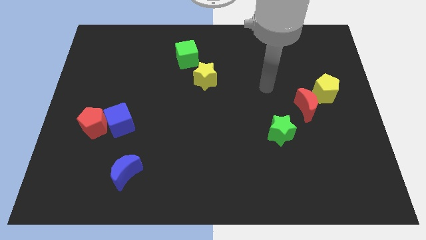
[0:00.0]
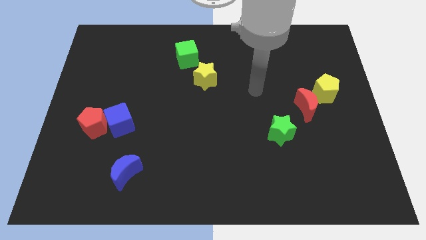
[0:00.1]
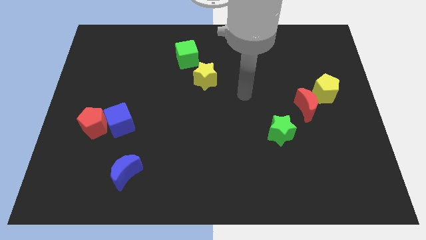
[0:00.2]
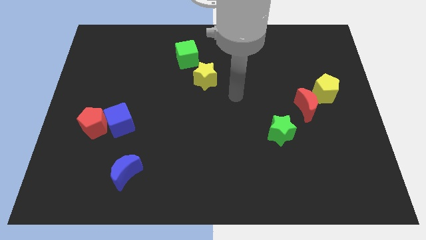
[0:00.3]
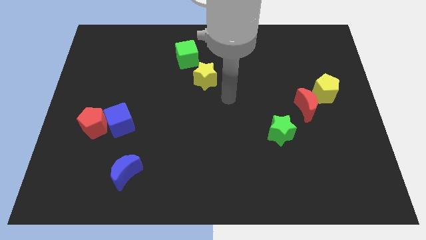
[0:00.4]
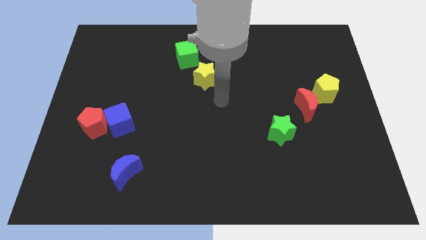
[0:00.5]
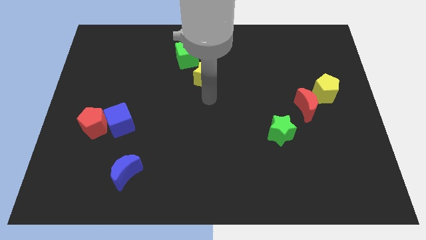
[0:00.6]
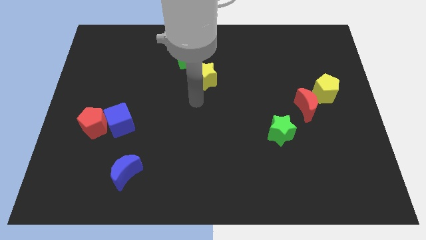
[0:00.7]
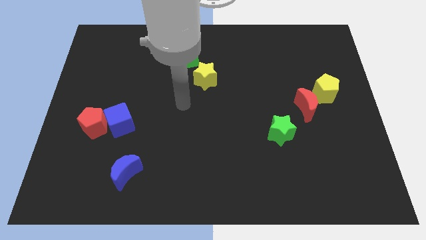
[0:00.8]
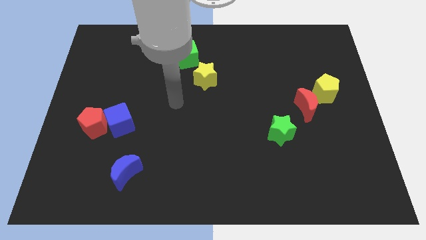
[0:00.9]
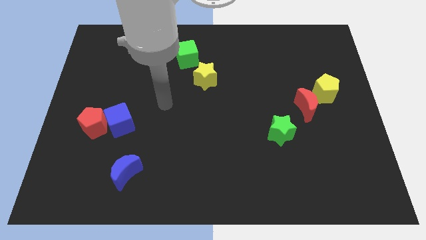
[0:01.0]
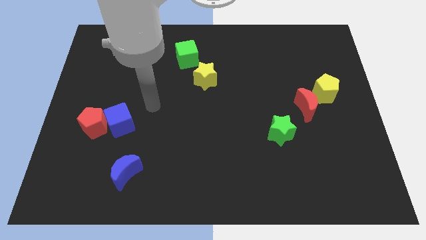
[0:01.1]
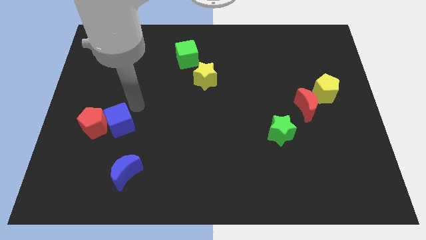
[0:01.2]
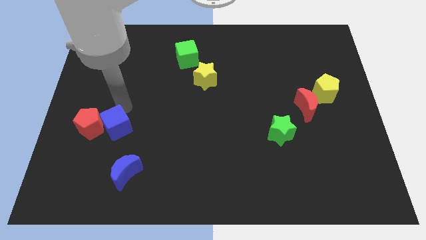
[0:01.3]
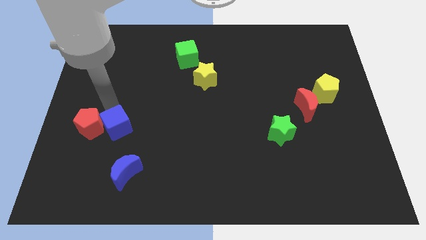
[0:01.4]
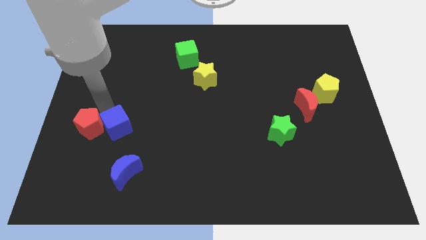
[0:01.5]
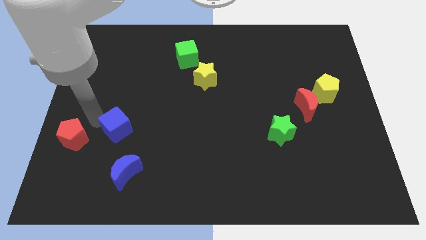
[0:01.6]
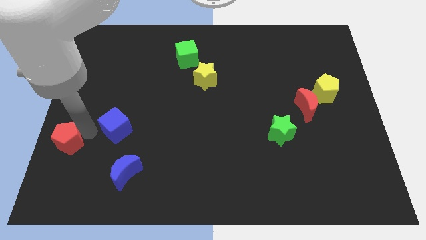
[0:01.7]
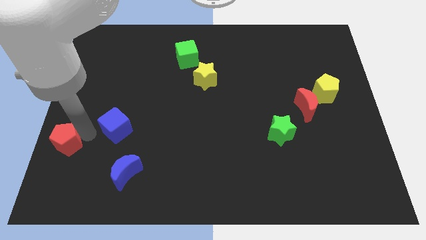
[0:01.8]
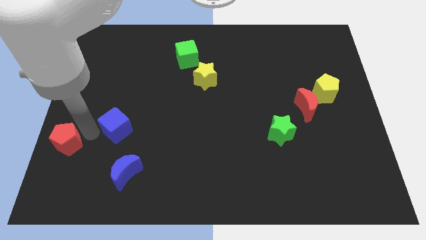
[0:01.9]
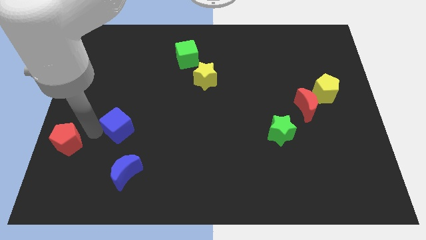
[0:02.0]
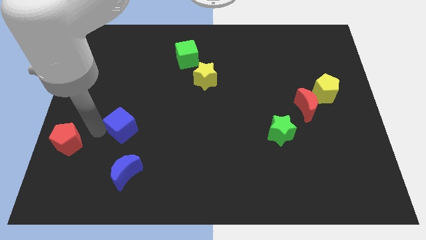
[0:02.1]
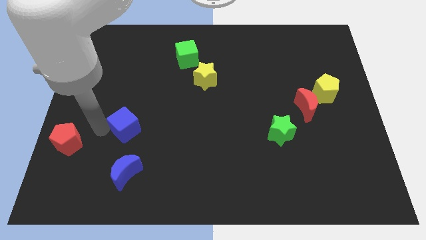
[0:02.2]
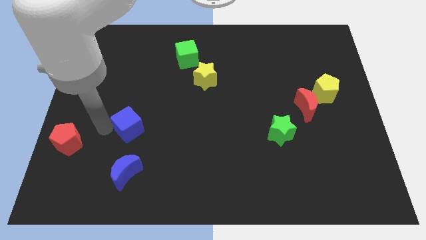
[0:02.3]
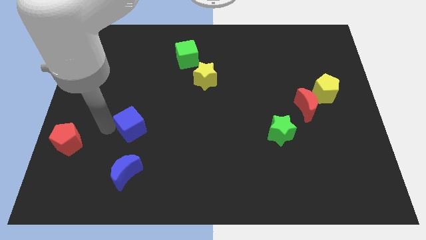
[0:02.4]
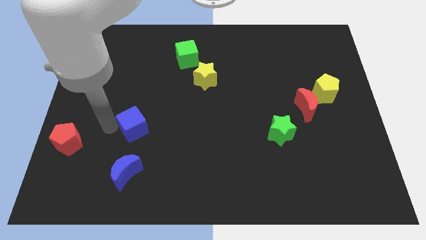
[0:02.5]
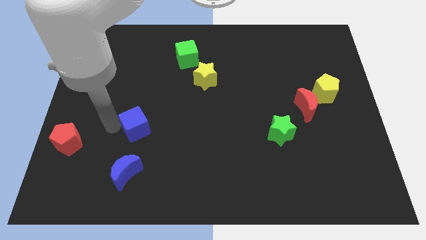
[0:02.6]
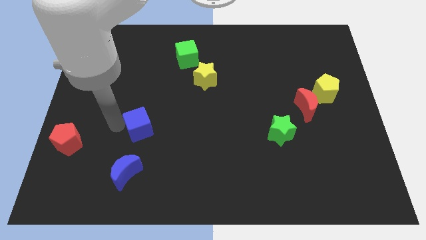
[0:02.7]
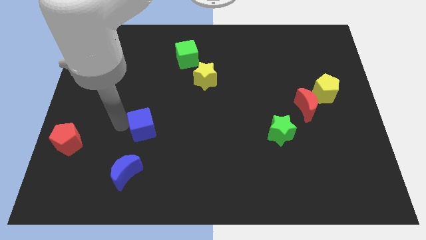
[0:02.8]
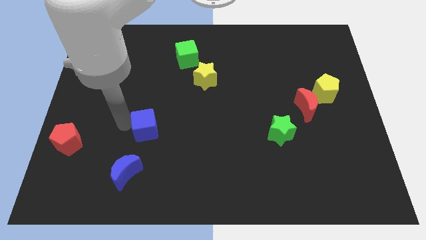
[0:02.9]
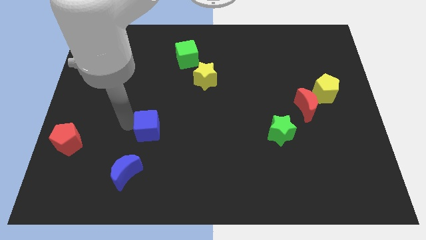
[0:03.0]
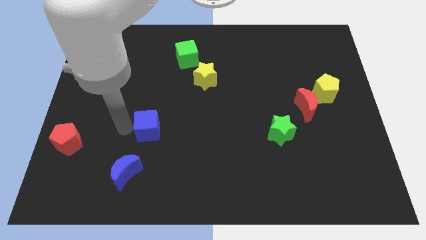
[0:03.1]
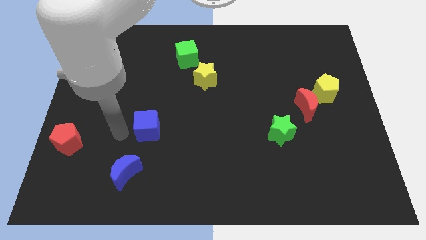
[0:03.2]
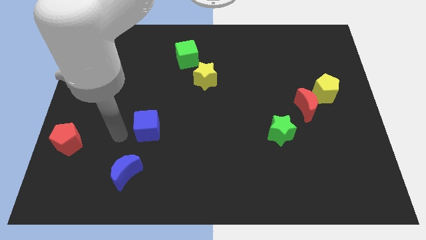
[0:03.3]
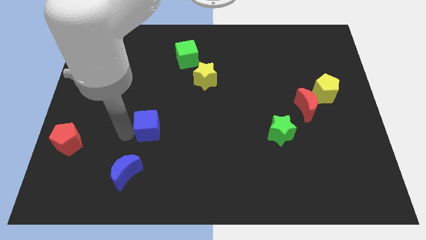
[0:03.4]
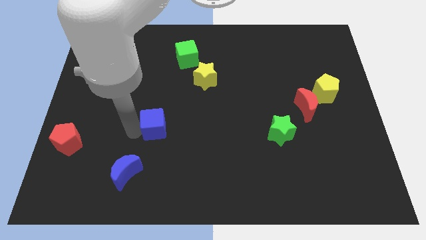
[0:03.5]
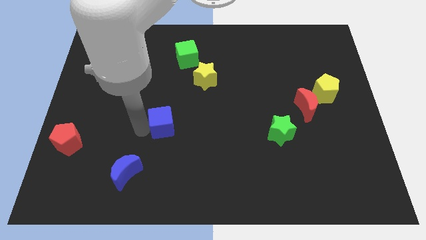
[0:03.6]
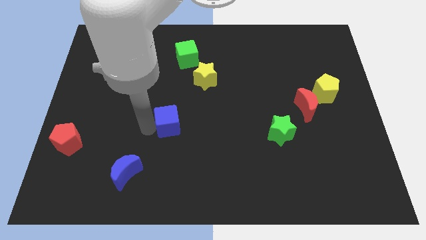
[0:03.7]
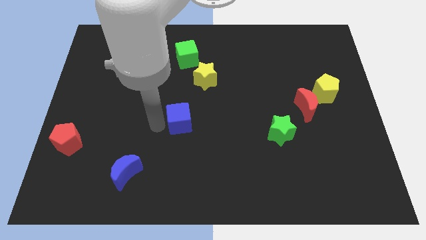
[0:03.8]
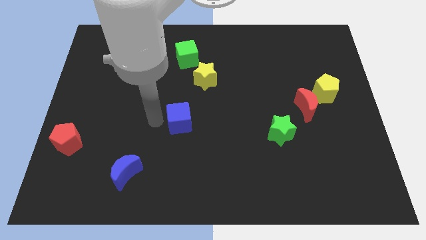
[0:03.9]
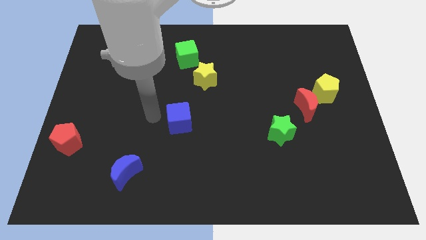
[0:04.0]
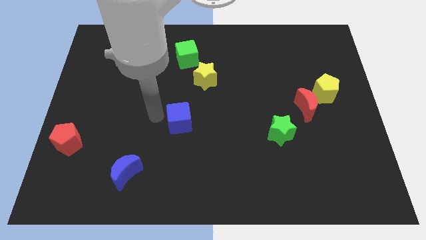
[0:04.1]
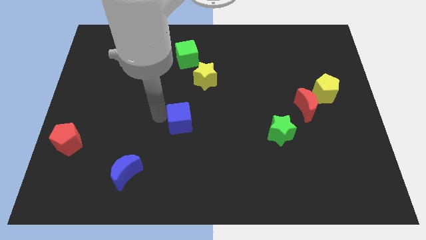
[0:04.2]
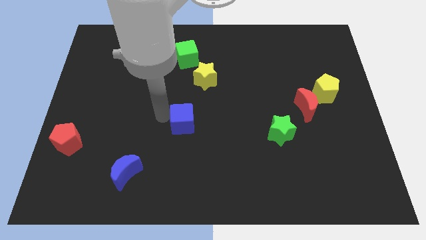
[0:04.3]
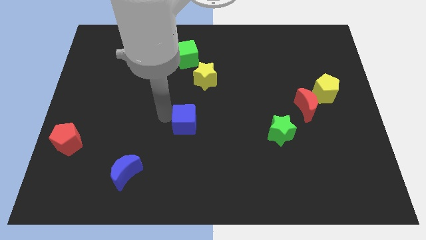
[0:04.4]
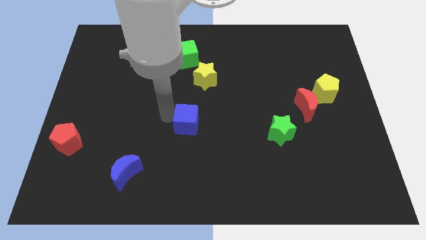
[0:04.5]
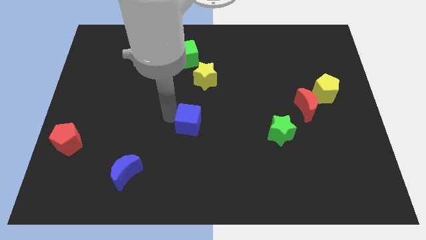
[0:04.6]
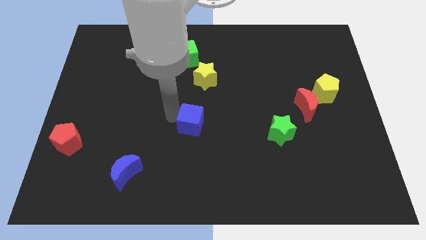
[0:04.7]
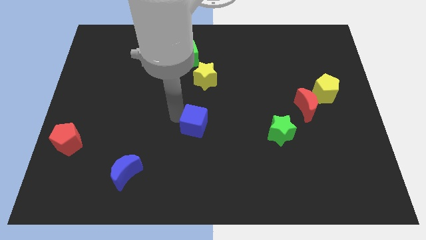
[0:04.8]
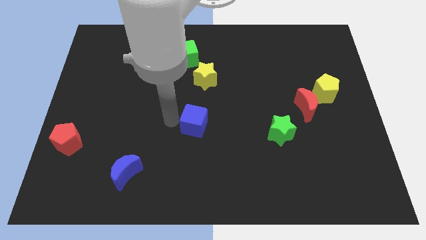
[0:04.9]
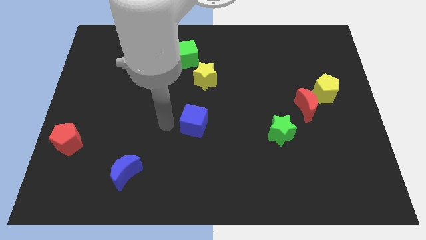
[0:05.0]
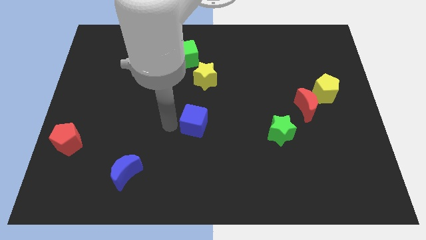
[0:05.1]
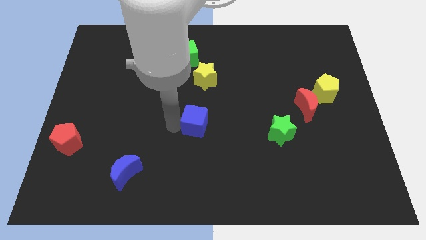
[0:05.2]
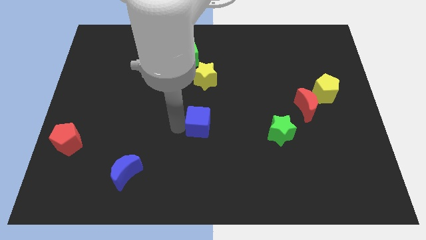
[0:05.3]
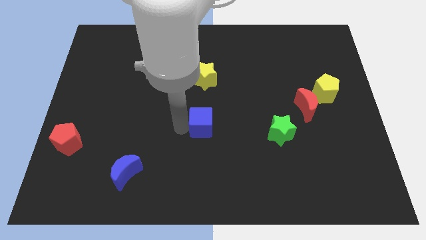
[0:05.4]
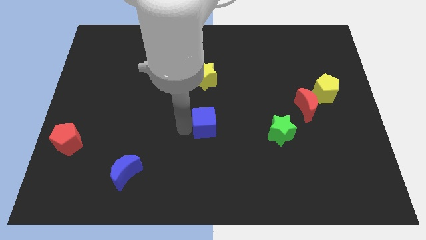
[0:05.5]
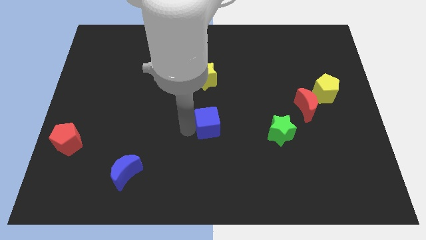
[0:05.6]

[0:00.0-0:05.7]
move the blue cube right

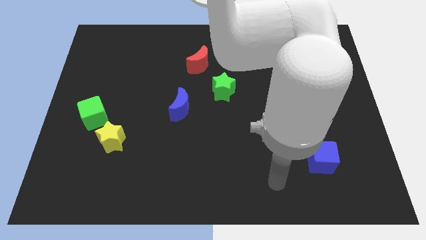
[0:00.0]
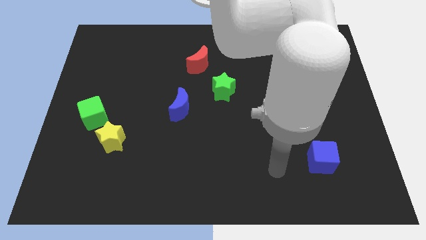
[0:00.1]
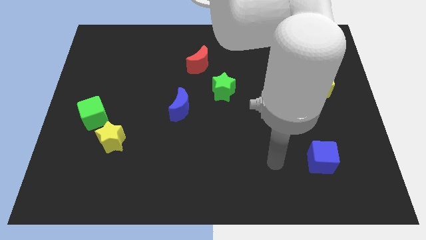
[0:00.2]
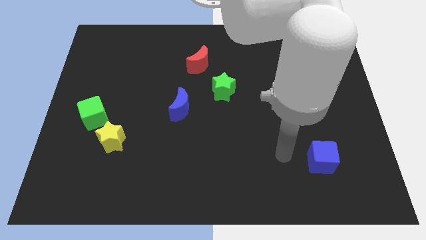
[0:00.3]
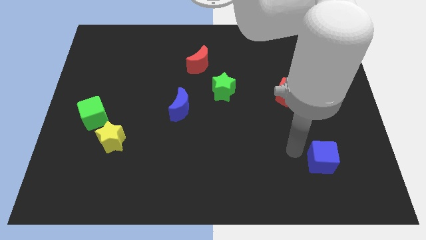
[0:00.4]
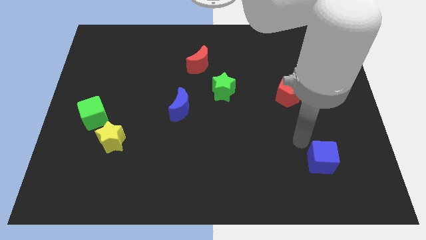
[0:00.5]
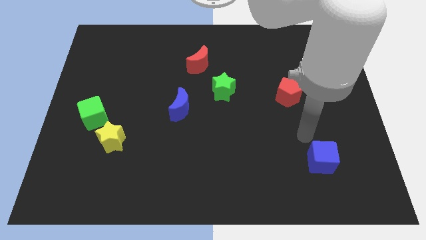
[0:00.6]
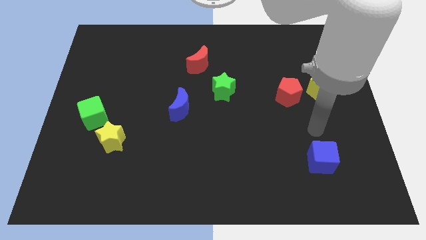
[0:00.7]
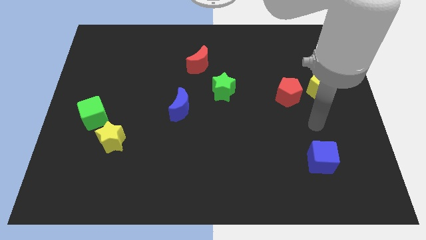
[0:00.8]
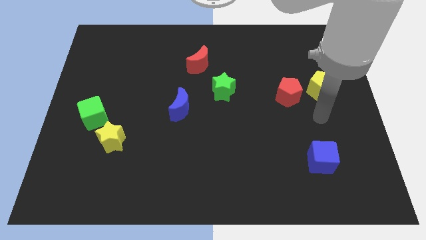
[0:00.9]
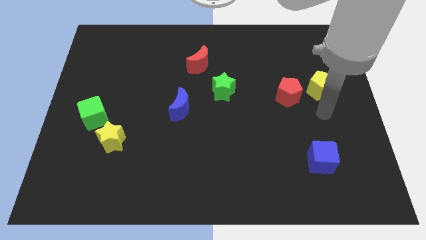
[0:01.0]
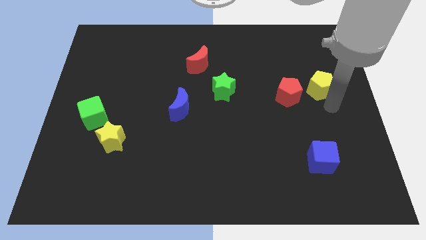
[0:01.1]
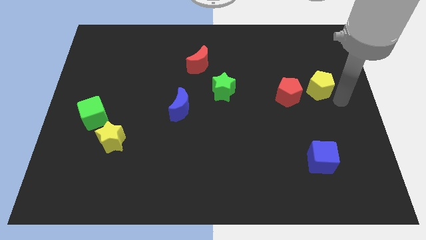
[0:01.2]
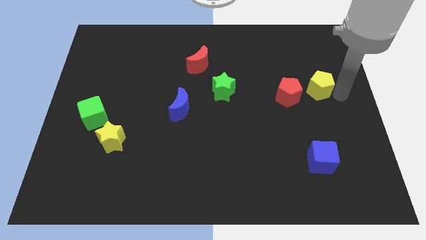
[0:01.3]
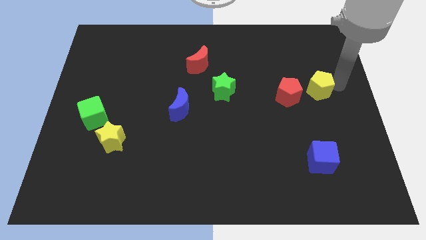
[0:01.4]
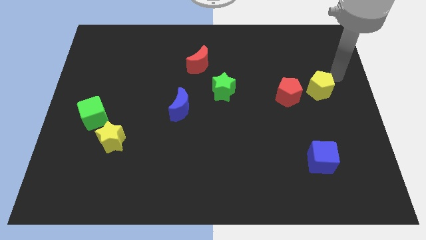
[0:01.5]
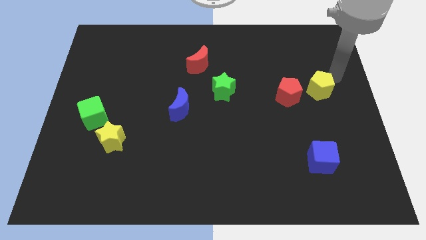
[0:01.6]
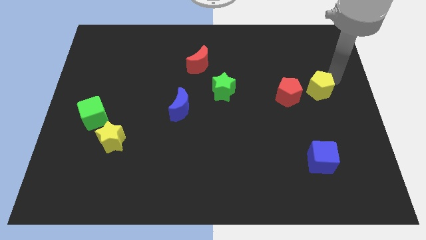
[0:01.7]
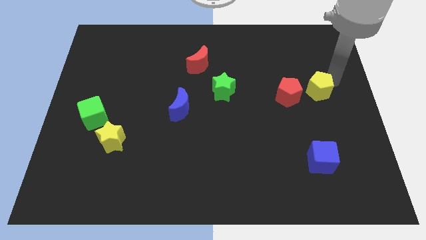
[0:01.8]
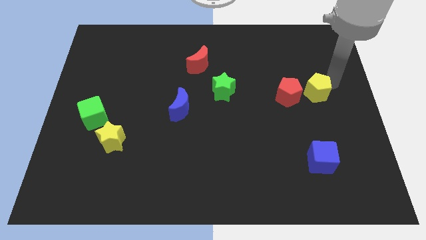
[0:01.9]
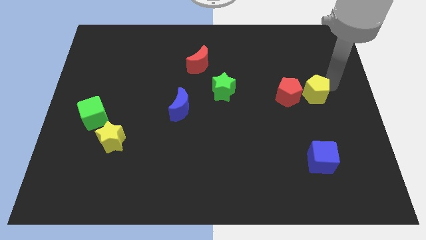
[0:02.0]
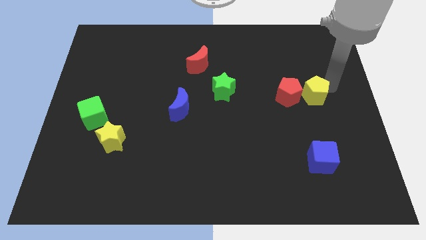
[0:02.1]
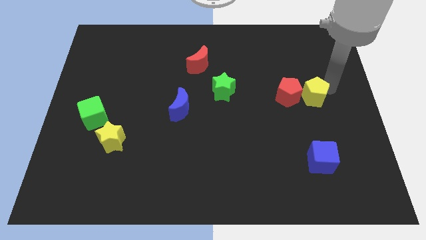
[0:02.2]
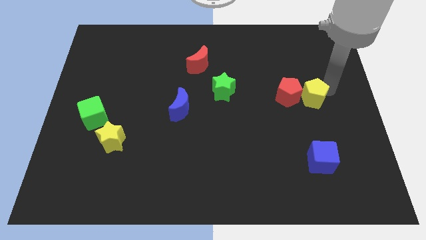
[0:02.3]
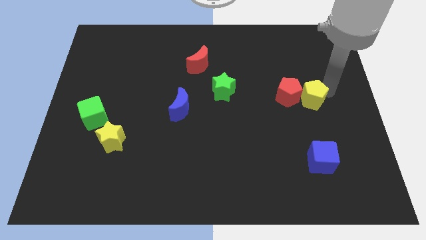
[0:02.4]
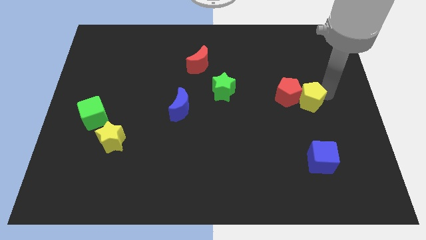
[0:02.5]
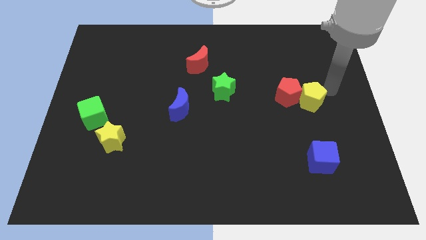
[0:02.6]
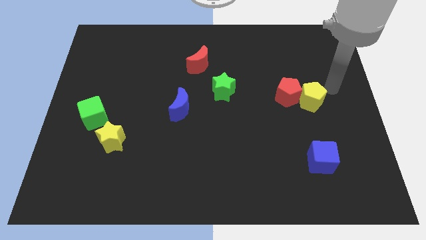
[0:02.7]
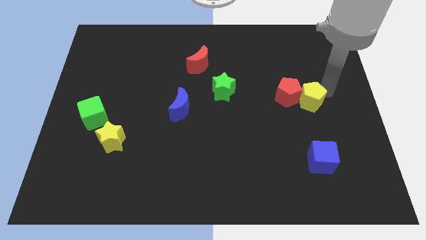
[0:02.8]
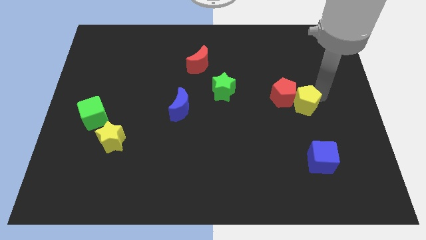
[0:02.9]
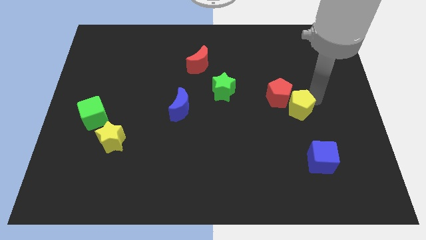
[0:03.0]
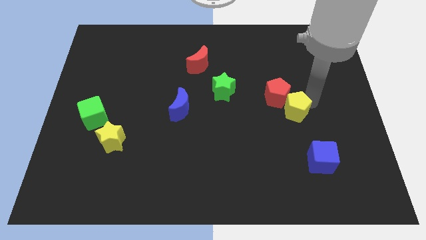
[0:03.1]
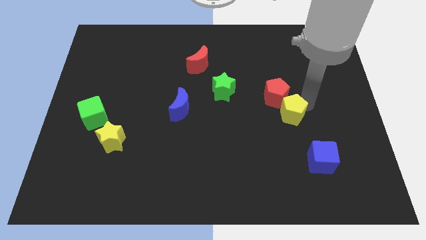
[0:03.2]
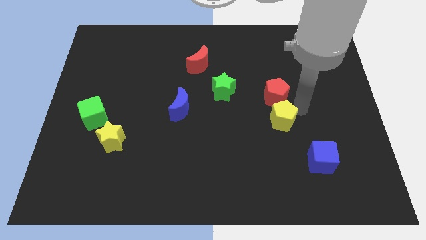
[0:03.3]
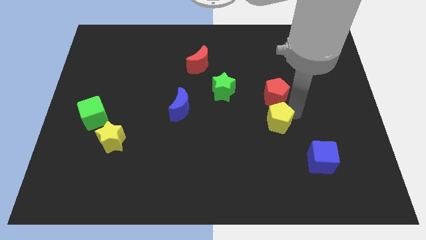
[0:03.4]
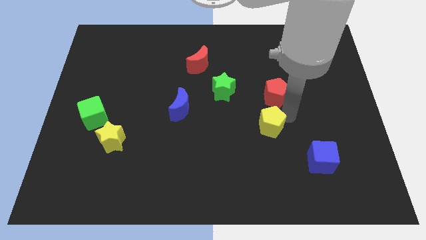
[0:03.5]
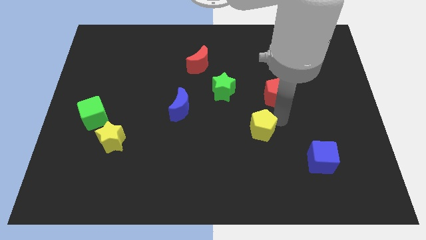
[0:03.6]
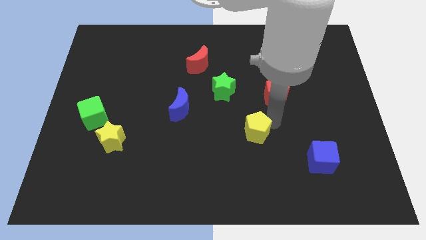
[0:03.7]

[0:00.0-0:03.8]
push the yellow pentagon downwards and left
